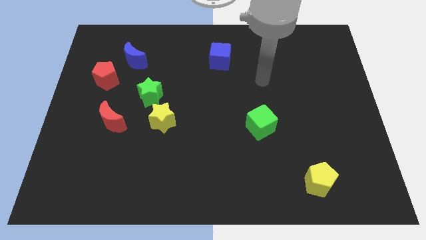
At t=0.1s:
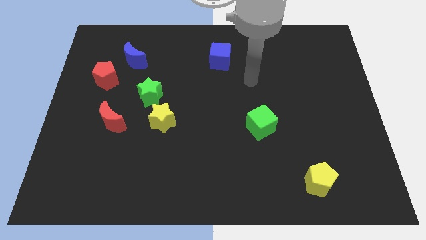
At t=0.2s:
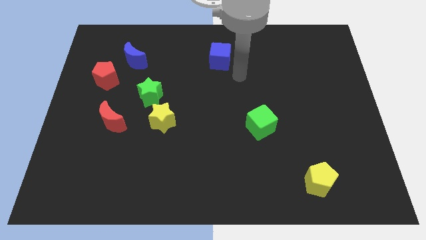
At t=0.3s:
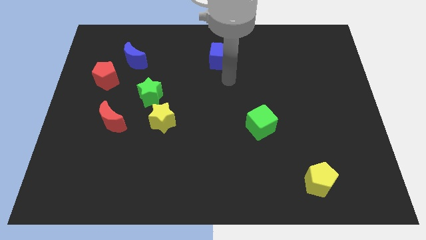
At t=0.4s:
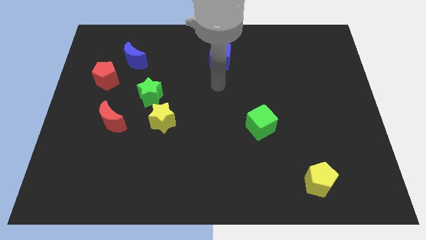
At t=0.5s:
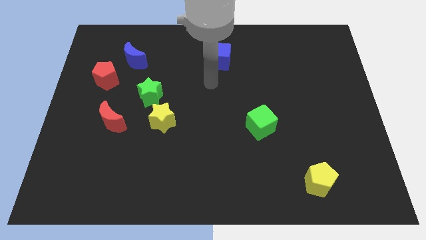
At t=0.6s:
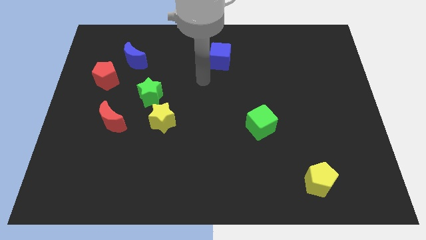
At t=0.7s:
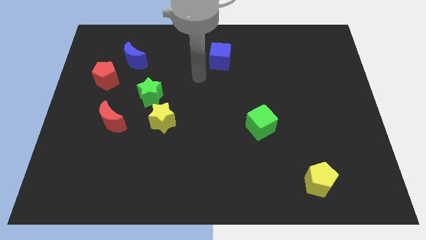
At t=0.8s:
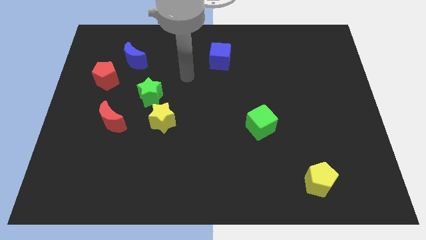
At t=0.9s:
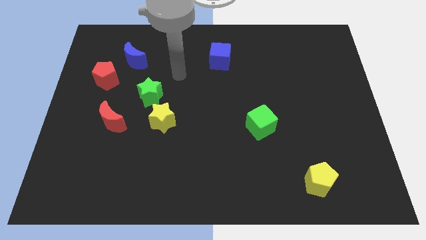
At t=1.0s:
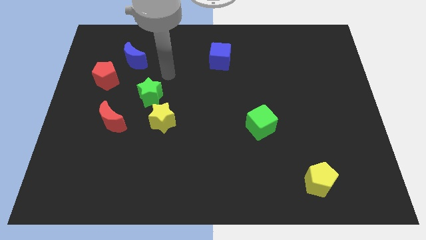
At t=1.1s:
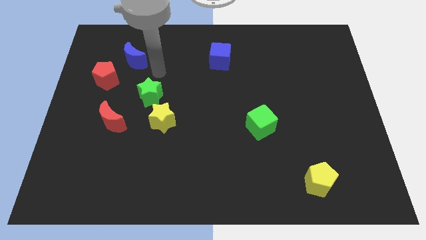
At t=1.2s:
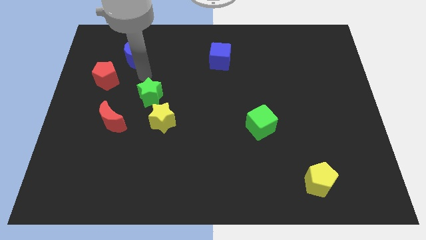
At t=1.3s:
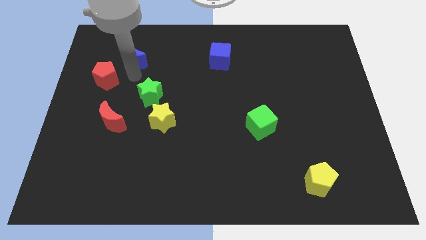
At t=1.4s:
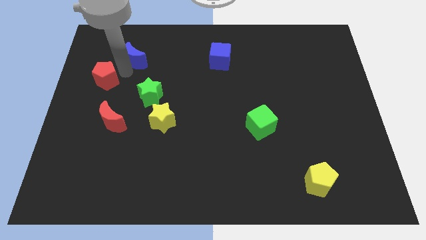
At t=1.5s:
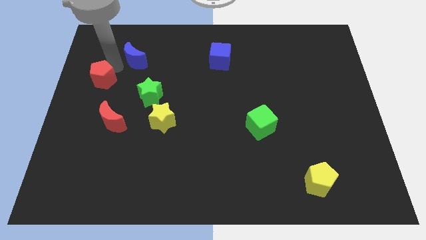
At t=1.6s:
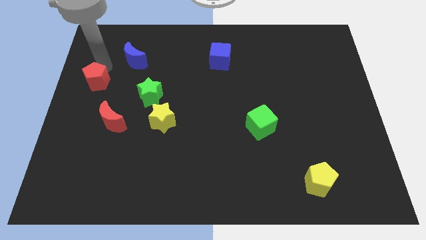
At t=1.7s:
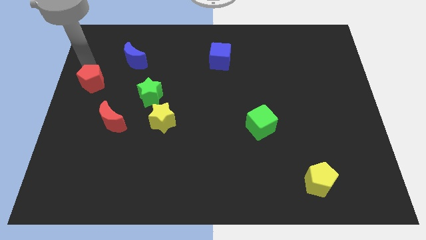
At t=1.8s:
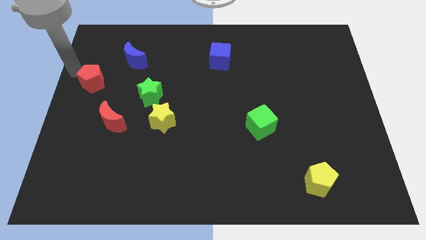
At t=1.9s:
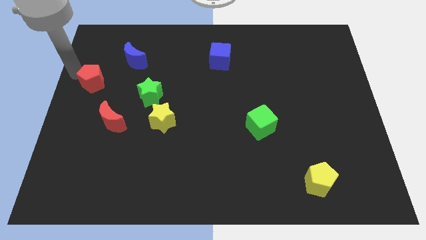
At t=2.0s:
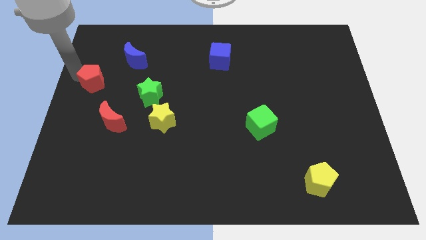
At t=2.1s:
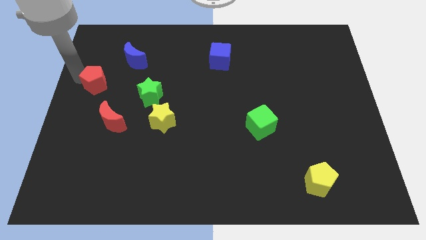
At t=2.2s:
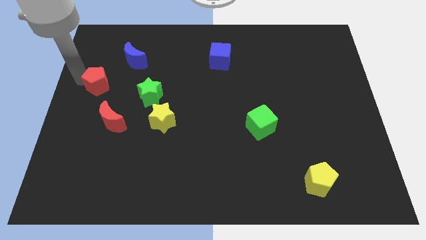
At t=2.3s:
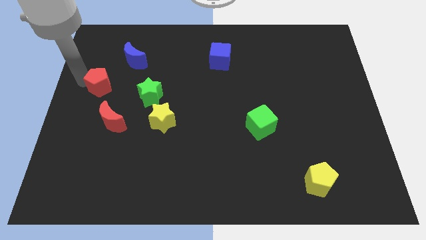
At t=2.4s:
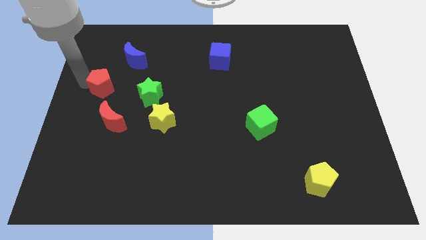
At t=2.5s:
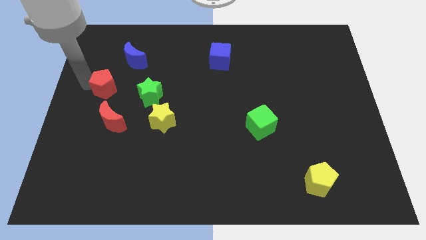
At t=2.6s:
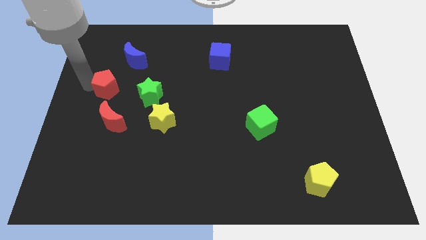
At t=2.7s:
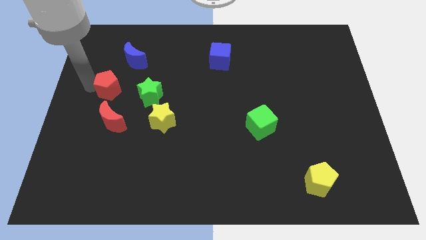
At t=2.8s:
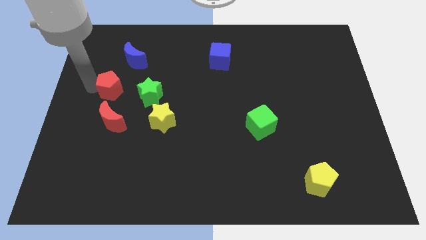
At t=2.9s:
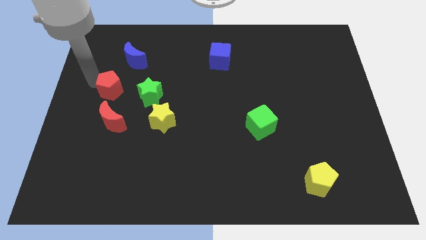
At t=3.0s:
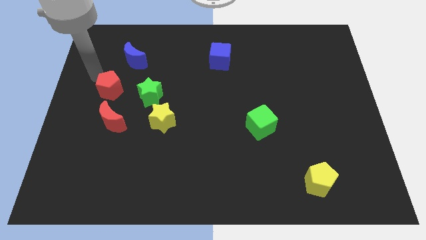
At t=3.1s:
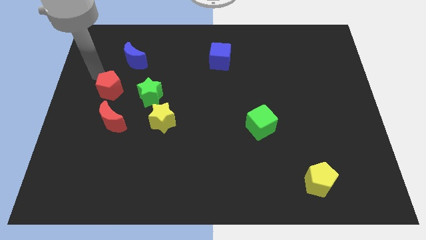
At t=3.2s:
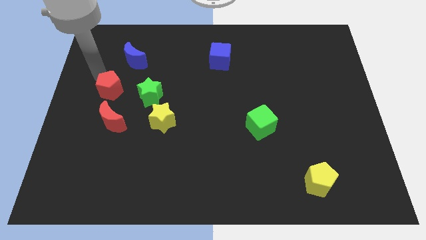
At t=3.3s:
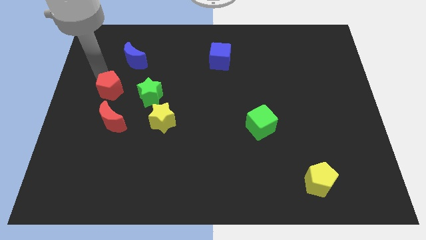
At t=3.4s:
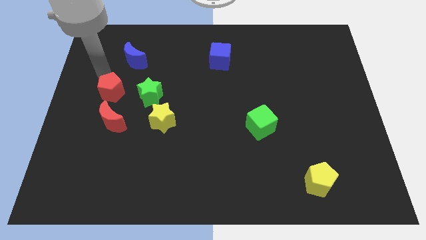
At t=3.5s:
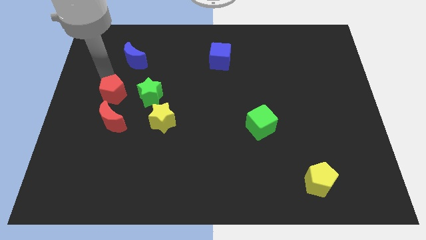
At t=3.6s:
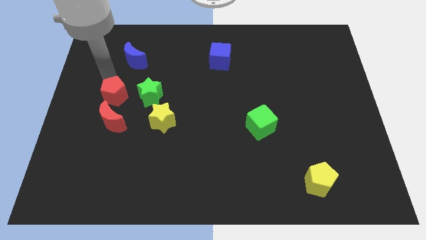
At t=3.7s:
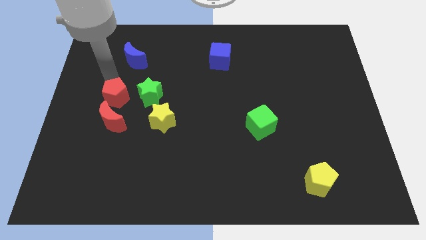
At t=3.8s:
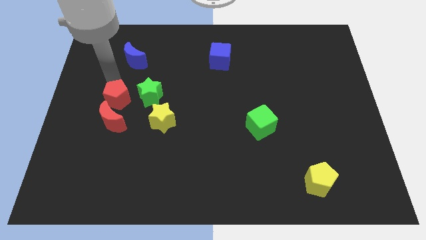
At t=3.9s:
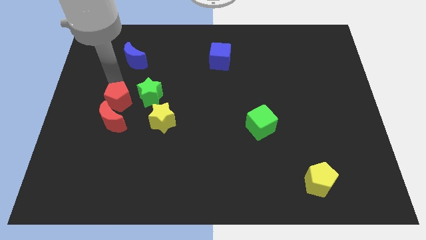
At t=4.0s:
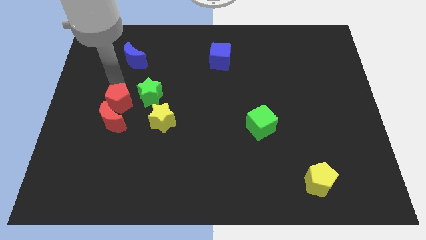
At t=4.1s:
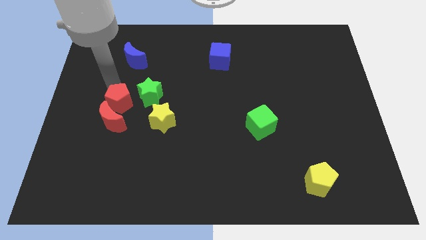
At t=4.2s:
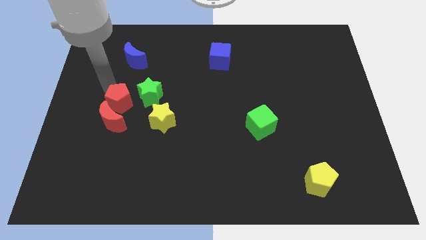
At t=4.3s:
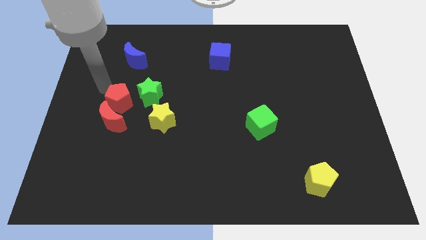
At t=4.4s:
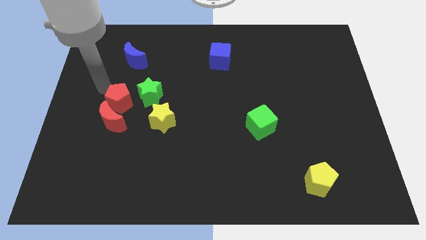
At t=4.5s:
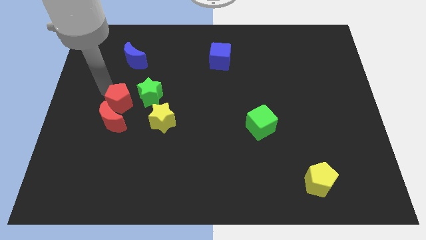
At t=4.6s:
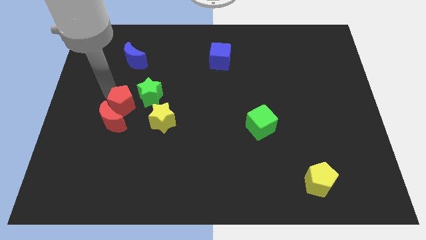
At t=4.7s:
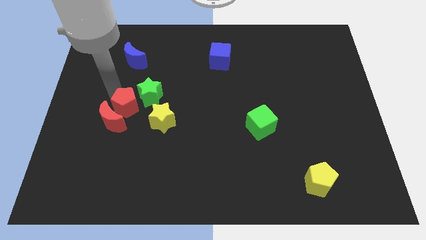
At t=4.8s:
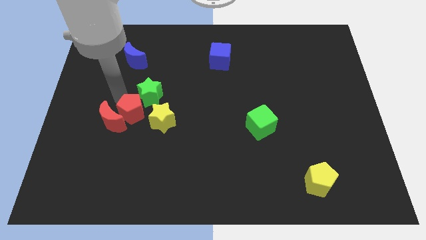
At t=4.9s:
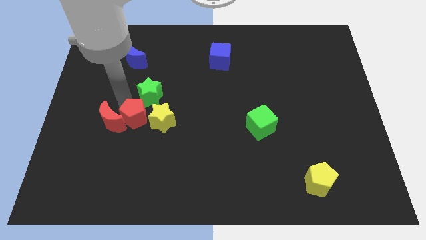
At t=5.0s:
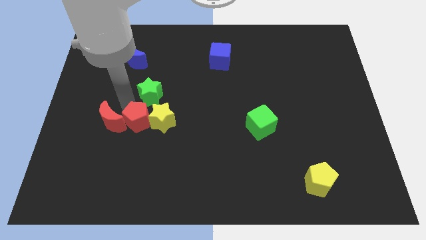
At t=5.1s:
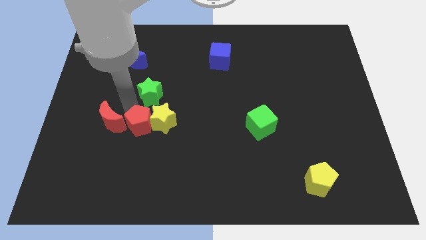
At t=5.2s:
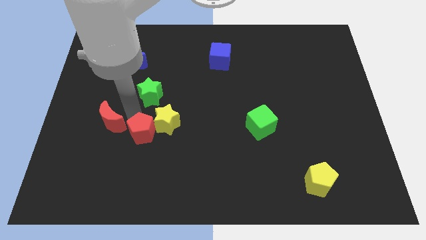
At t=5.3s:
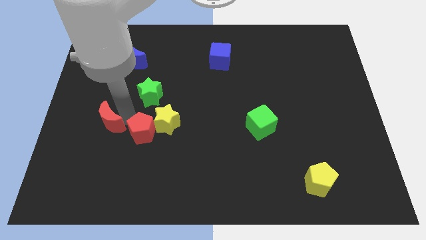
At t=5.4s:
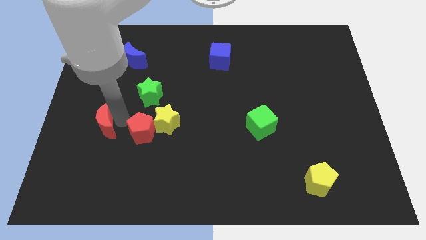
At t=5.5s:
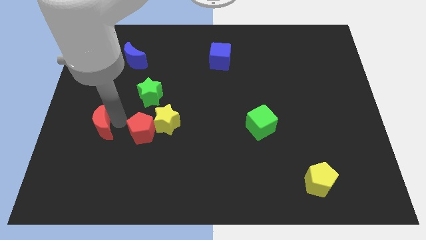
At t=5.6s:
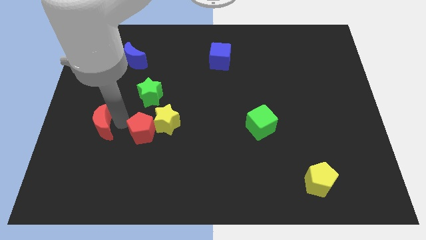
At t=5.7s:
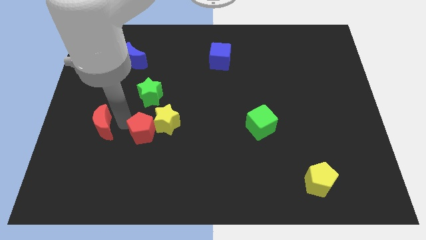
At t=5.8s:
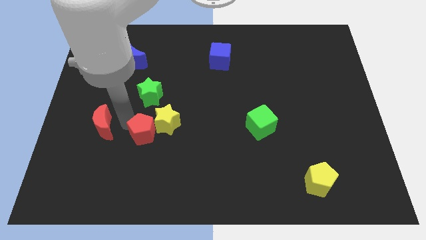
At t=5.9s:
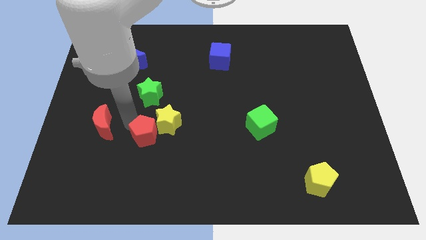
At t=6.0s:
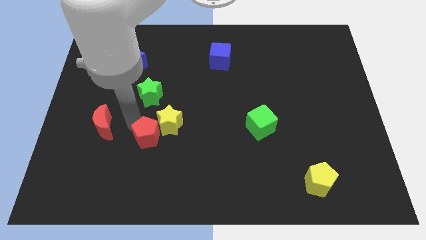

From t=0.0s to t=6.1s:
move the red pentagon down and then right

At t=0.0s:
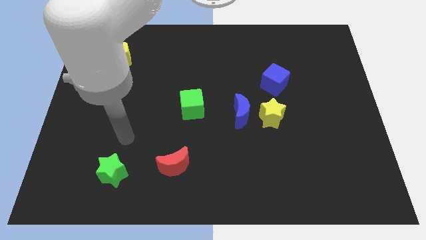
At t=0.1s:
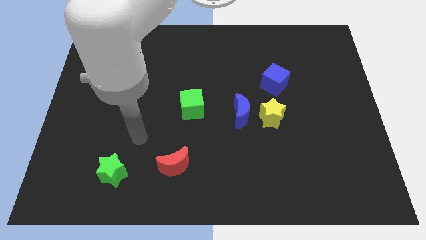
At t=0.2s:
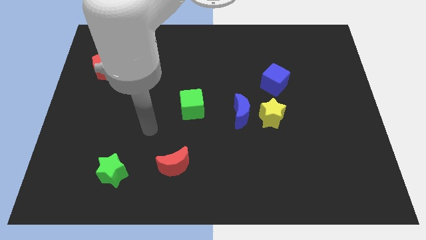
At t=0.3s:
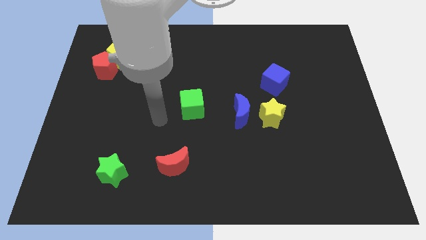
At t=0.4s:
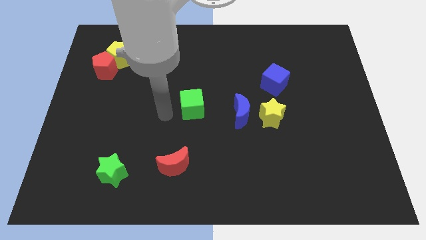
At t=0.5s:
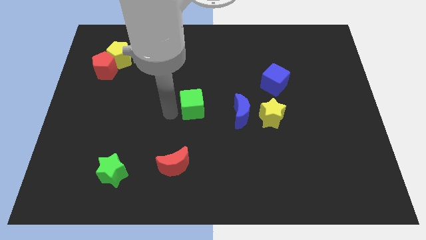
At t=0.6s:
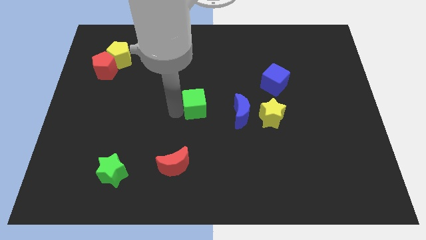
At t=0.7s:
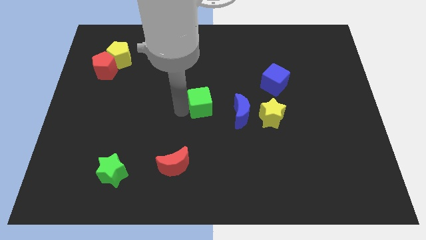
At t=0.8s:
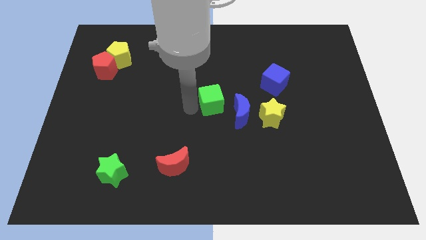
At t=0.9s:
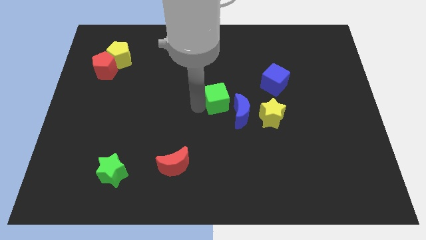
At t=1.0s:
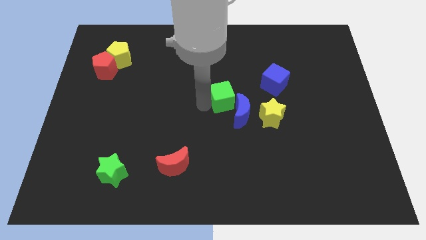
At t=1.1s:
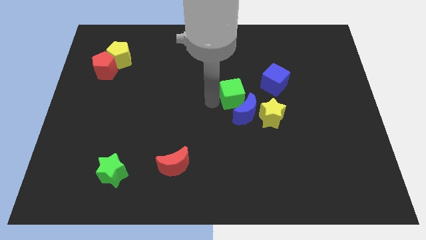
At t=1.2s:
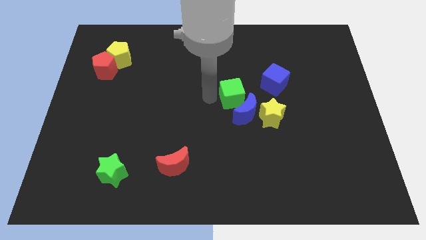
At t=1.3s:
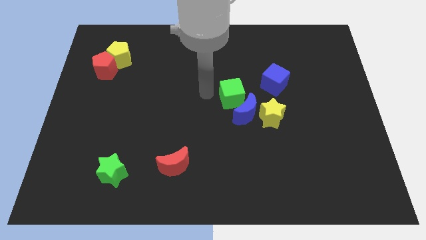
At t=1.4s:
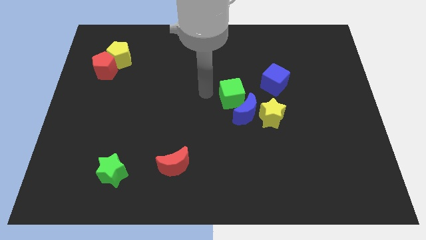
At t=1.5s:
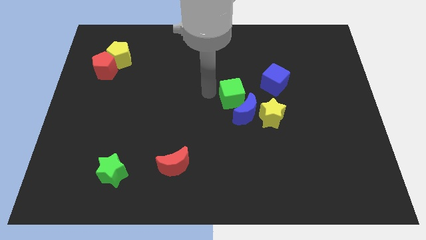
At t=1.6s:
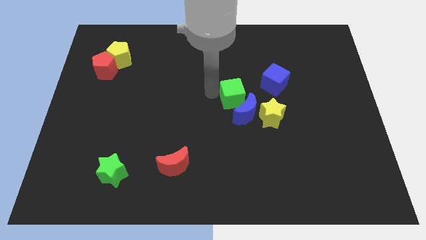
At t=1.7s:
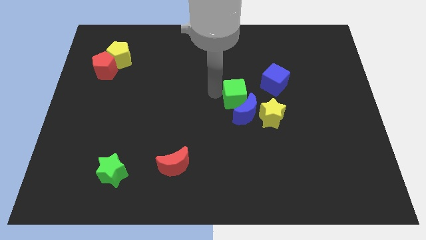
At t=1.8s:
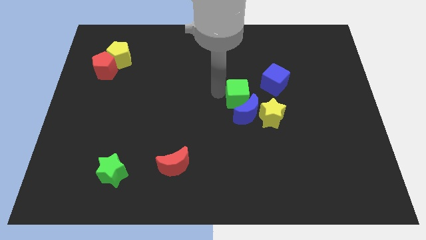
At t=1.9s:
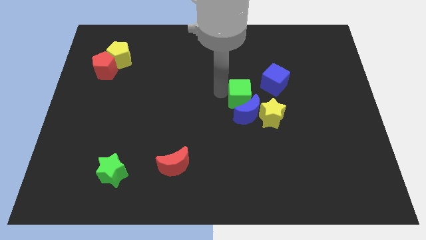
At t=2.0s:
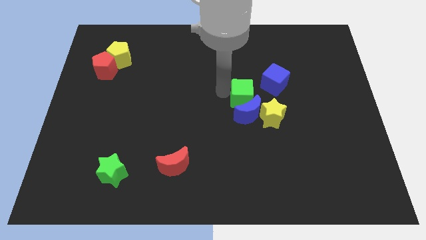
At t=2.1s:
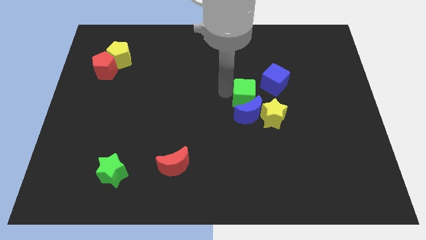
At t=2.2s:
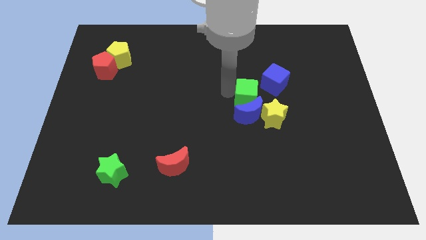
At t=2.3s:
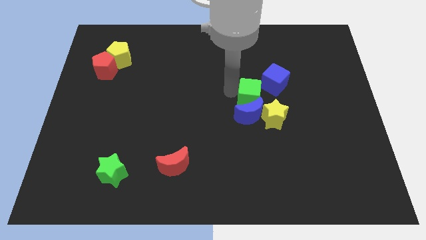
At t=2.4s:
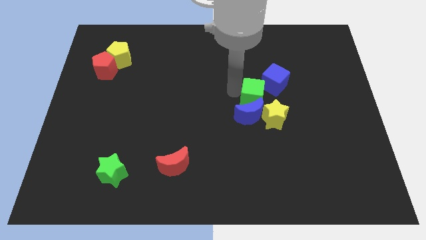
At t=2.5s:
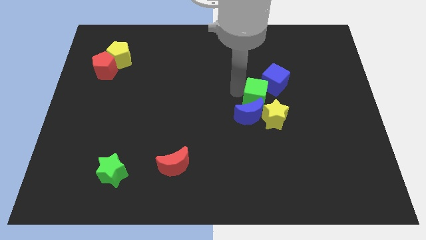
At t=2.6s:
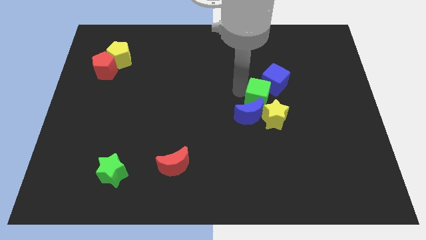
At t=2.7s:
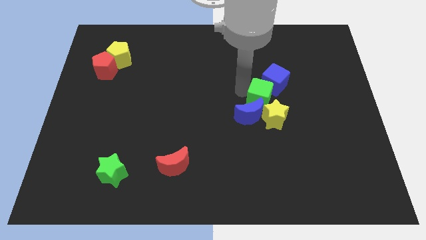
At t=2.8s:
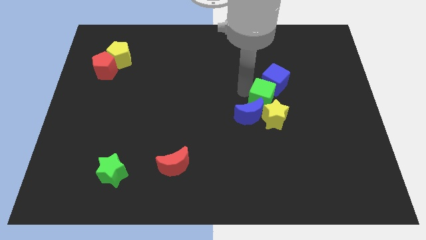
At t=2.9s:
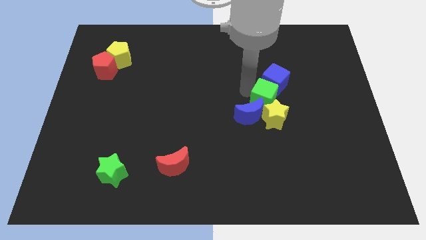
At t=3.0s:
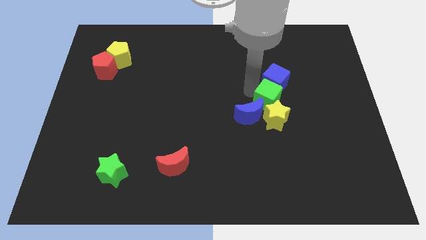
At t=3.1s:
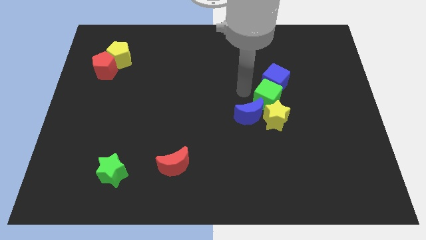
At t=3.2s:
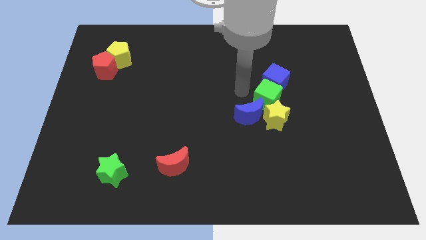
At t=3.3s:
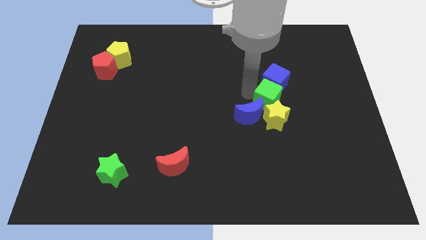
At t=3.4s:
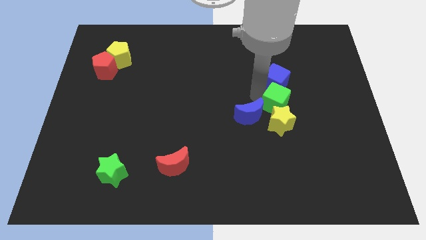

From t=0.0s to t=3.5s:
move the green cube right
